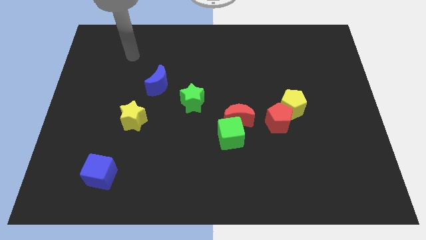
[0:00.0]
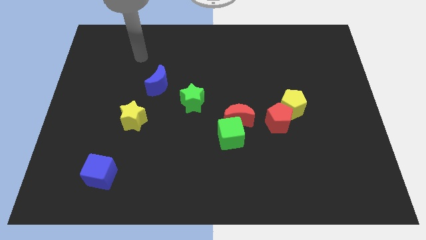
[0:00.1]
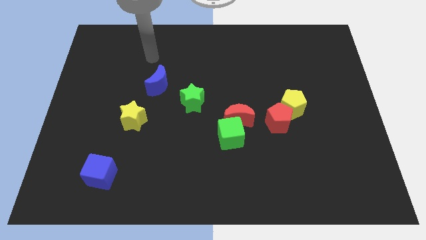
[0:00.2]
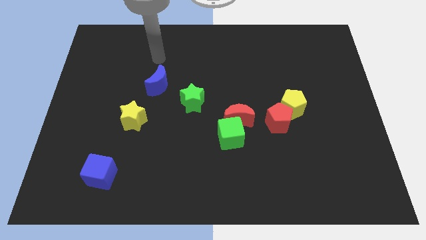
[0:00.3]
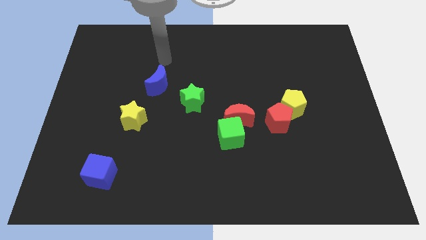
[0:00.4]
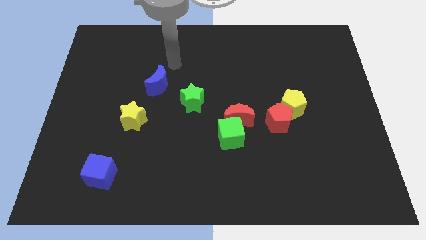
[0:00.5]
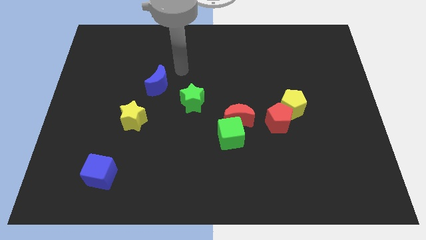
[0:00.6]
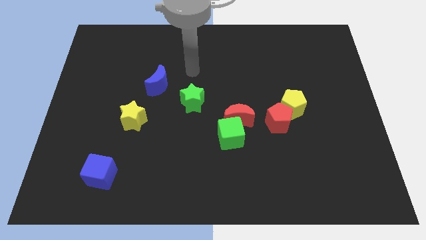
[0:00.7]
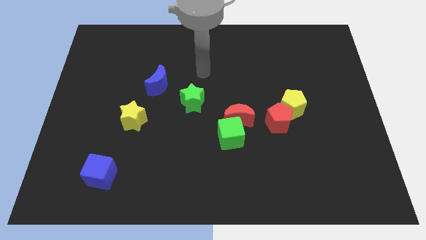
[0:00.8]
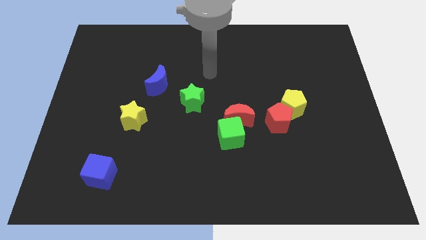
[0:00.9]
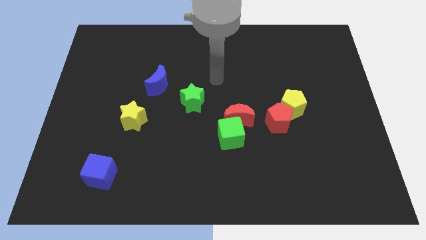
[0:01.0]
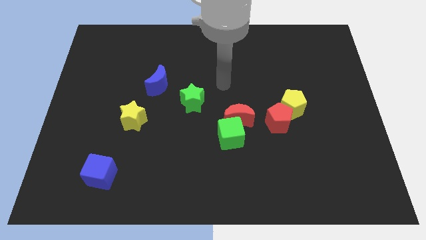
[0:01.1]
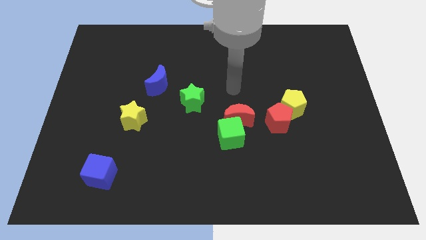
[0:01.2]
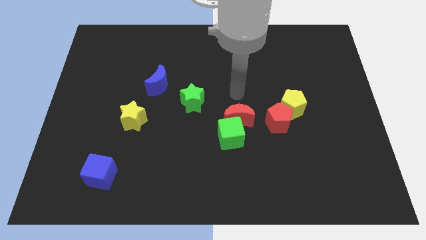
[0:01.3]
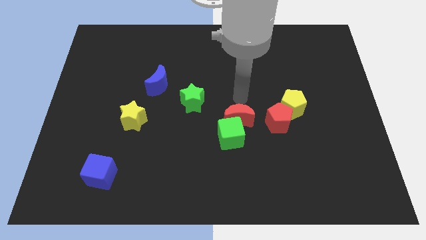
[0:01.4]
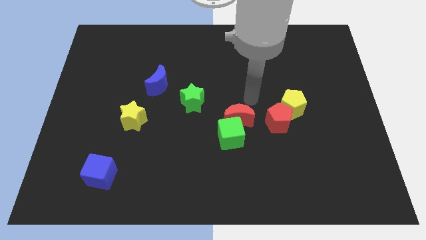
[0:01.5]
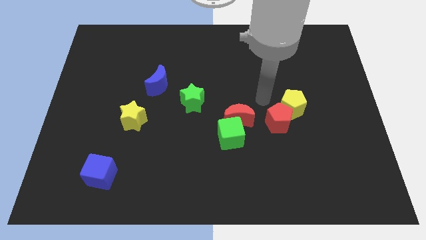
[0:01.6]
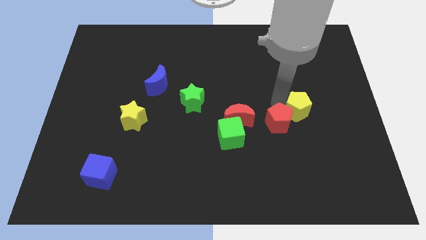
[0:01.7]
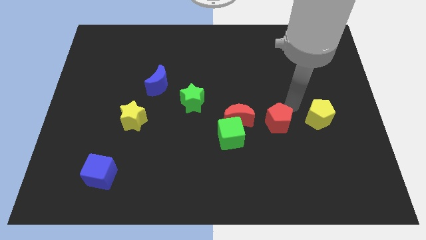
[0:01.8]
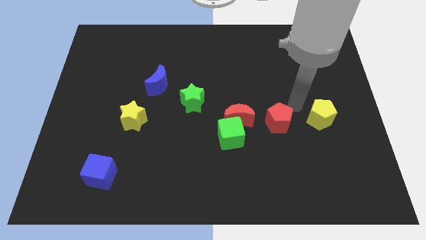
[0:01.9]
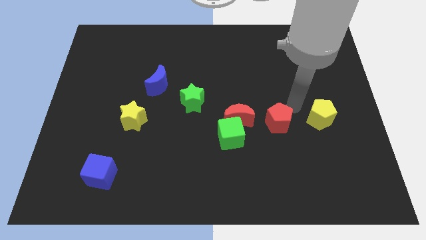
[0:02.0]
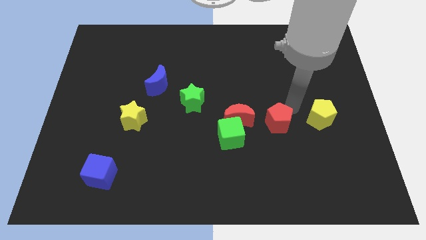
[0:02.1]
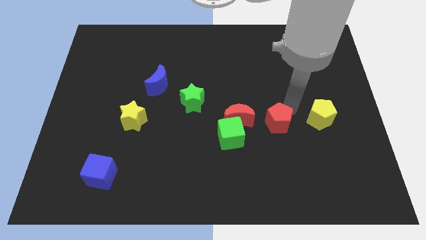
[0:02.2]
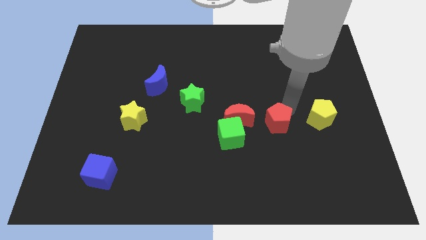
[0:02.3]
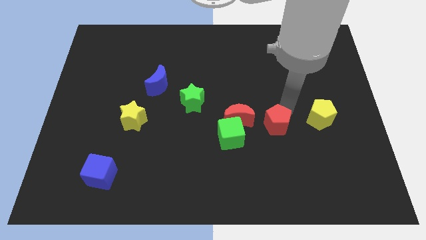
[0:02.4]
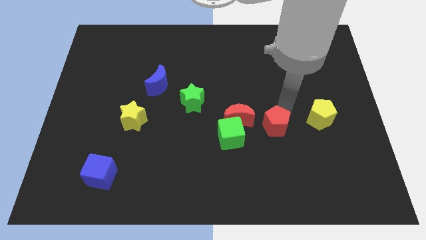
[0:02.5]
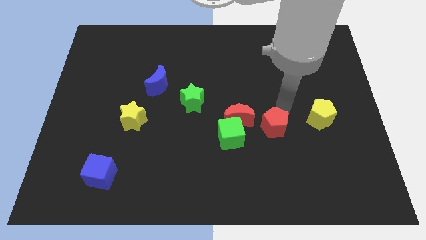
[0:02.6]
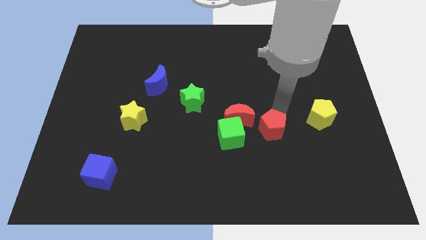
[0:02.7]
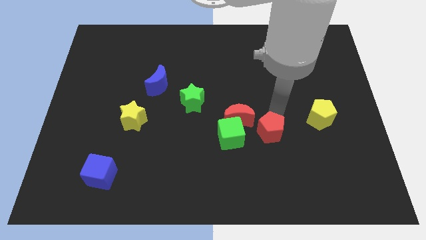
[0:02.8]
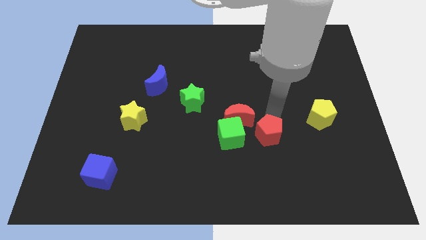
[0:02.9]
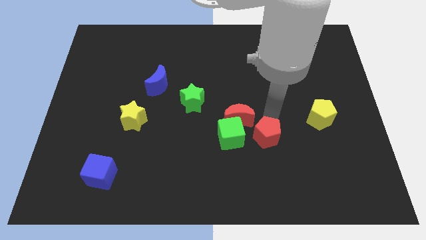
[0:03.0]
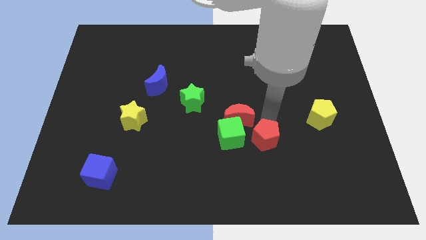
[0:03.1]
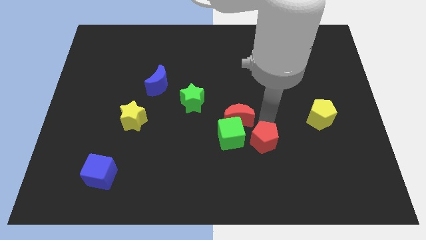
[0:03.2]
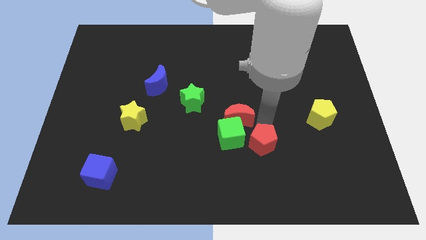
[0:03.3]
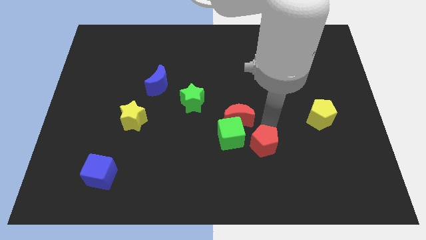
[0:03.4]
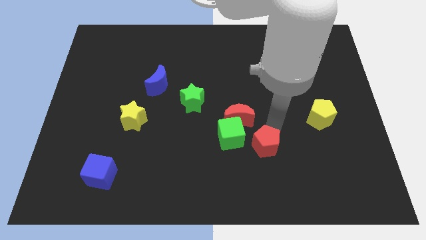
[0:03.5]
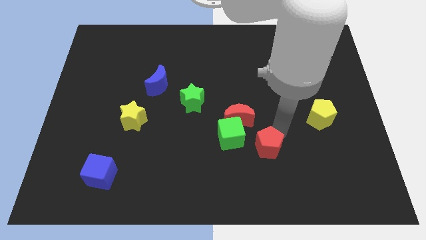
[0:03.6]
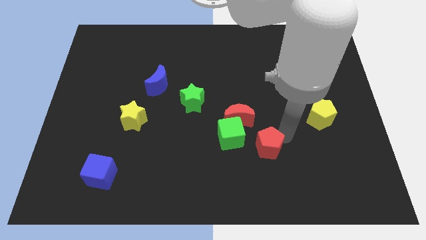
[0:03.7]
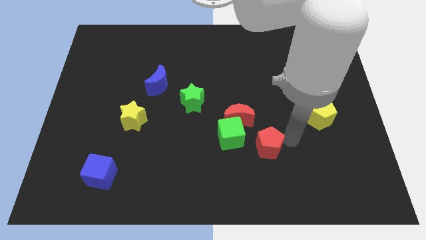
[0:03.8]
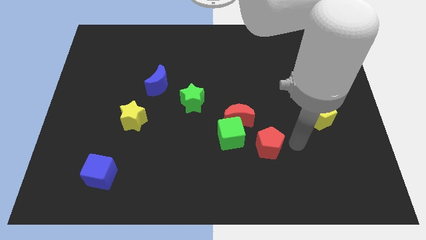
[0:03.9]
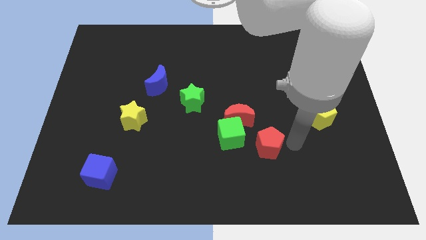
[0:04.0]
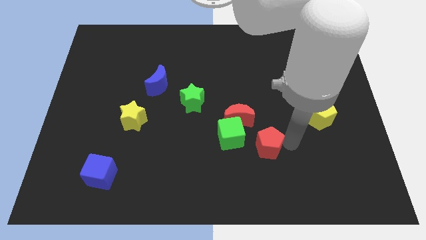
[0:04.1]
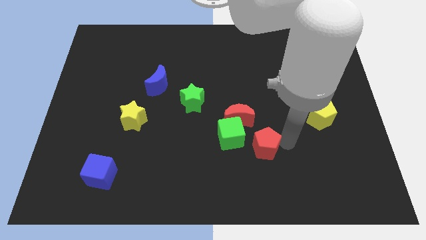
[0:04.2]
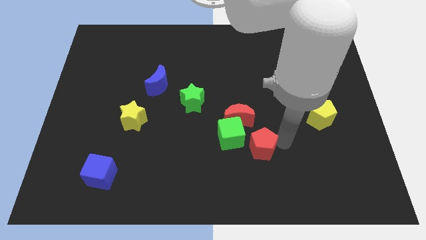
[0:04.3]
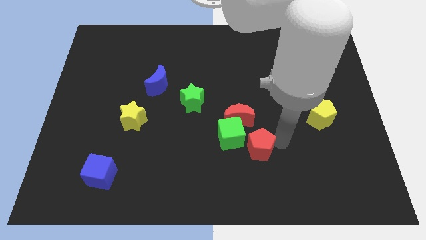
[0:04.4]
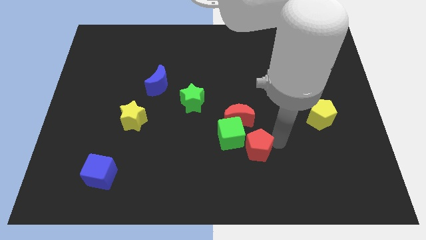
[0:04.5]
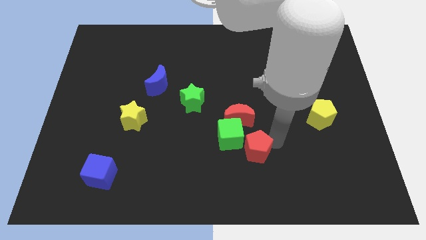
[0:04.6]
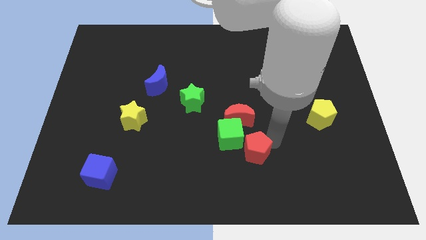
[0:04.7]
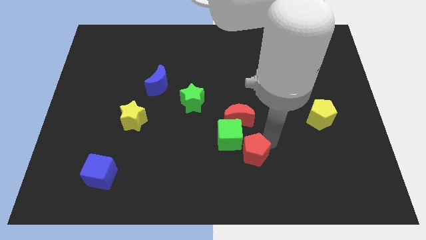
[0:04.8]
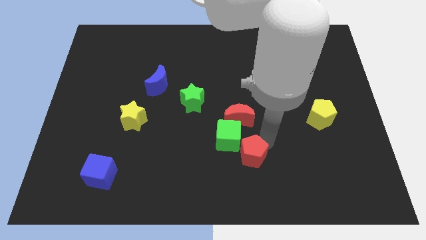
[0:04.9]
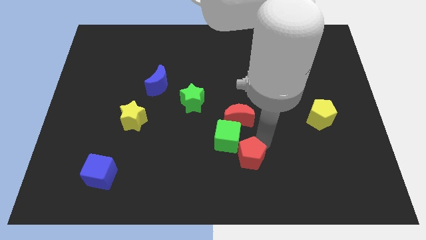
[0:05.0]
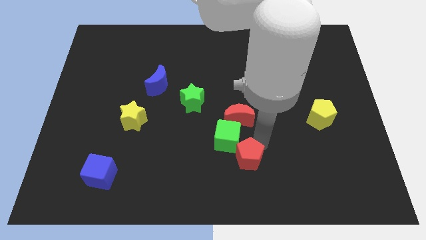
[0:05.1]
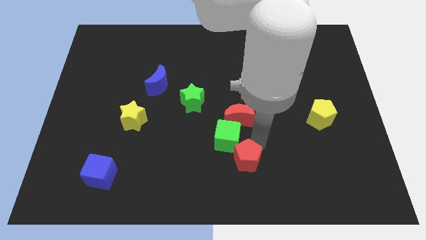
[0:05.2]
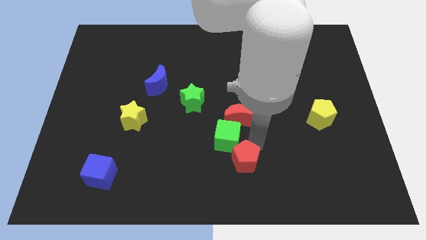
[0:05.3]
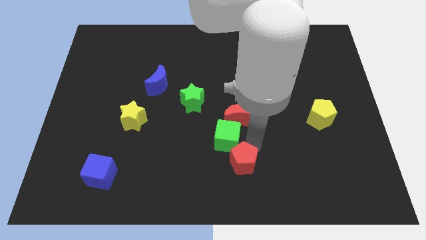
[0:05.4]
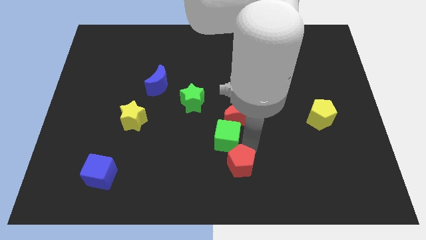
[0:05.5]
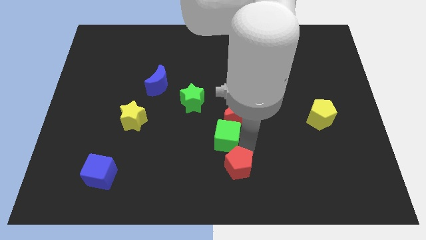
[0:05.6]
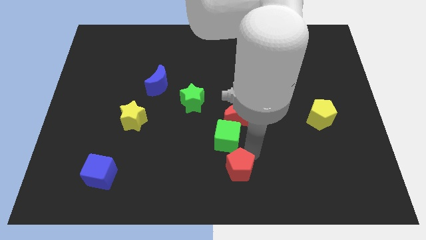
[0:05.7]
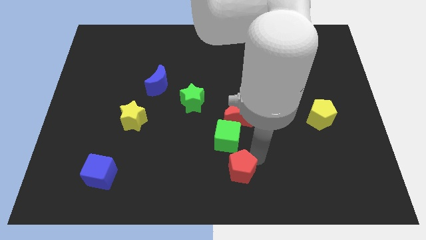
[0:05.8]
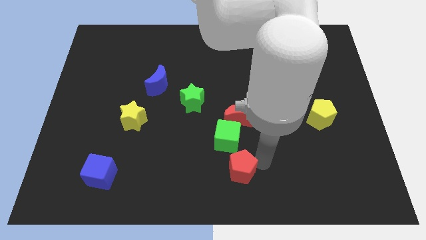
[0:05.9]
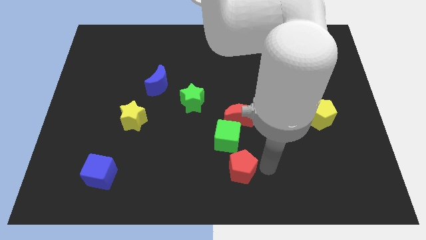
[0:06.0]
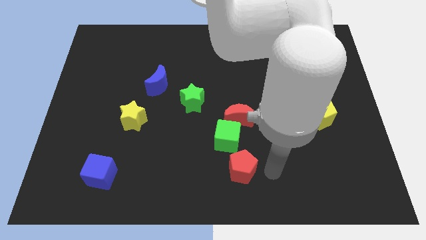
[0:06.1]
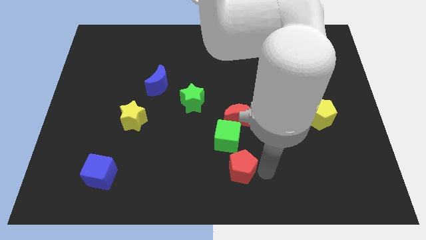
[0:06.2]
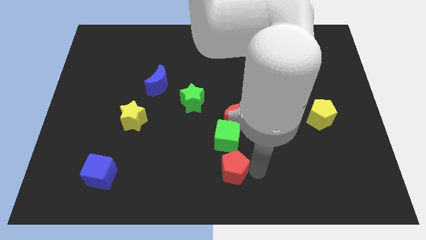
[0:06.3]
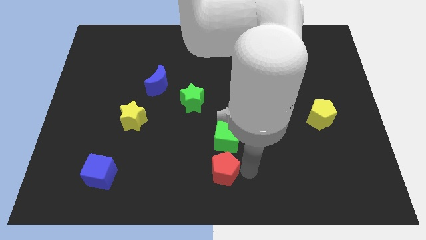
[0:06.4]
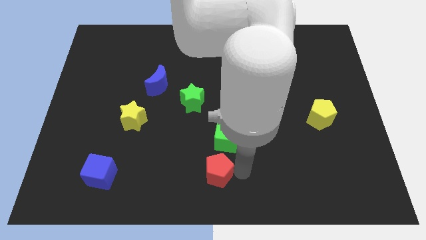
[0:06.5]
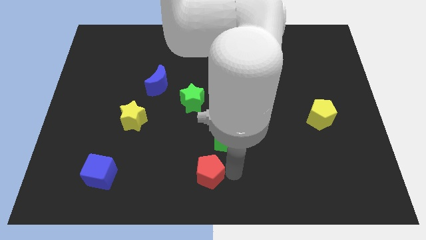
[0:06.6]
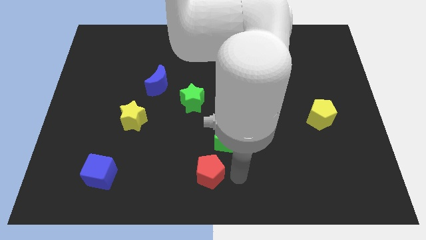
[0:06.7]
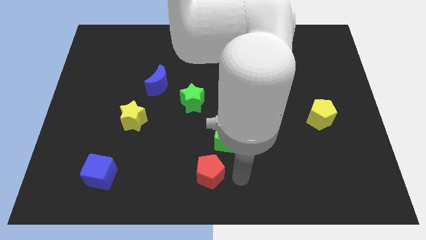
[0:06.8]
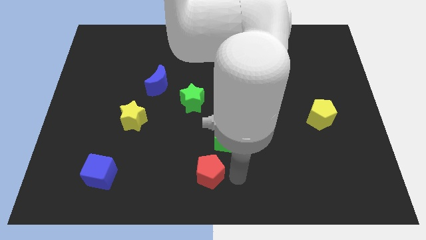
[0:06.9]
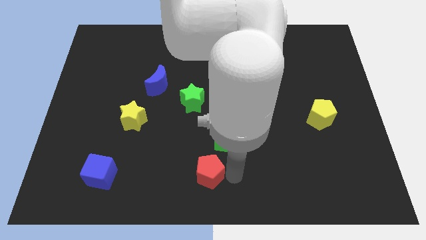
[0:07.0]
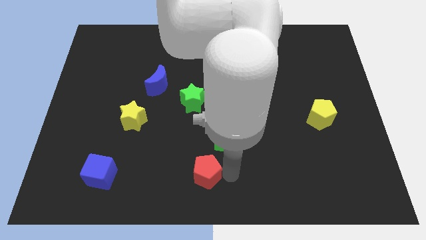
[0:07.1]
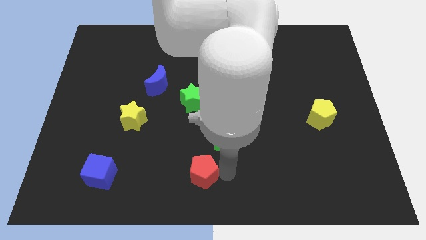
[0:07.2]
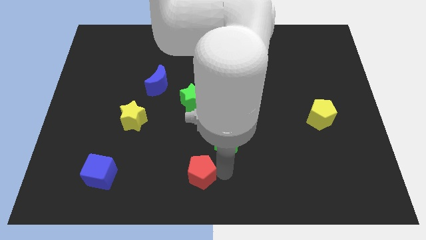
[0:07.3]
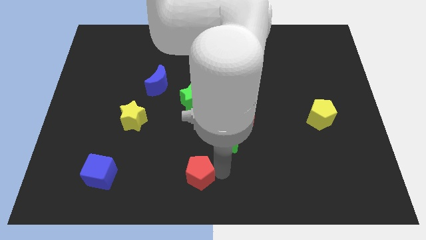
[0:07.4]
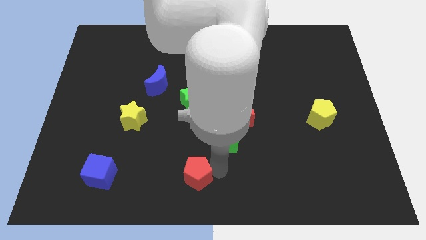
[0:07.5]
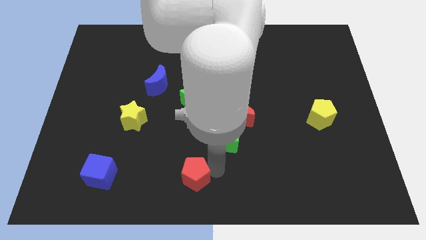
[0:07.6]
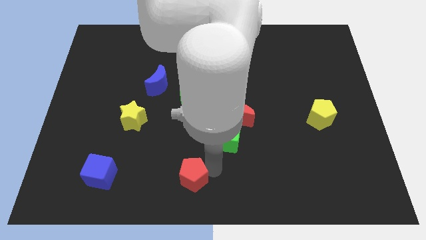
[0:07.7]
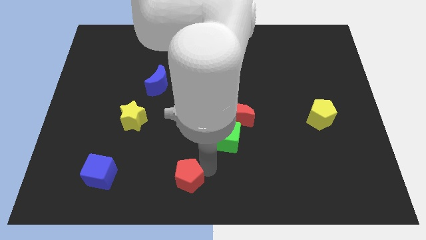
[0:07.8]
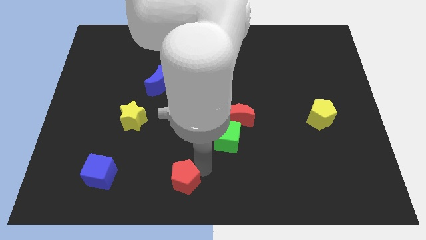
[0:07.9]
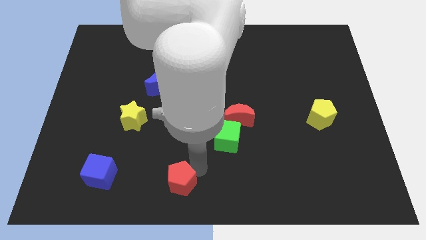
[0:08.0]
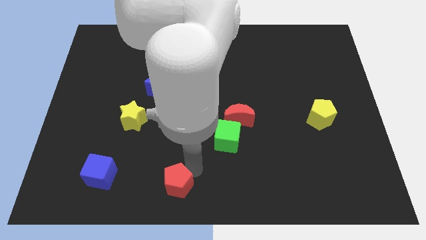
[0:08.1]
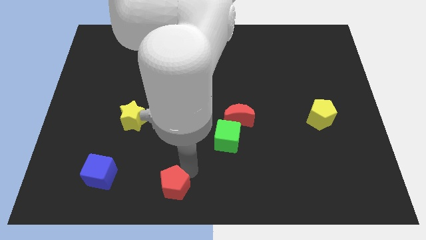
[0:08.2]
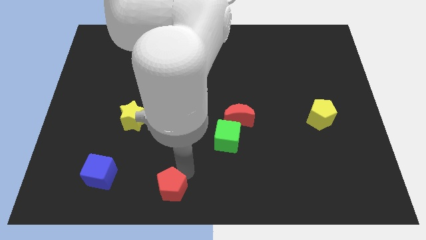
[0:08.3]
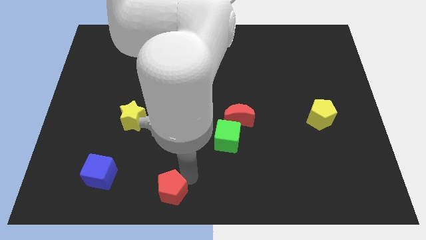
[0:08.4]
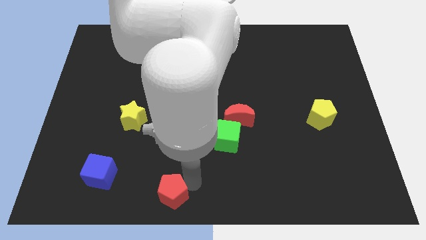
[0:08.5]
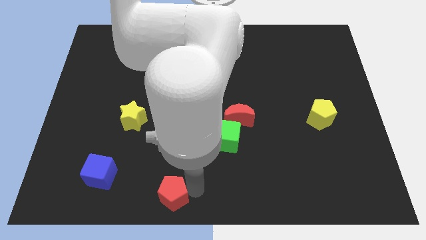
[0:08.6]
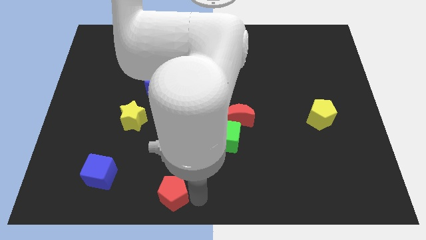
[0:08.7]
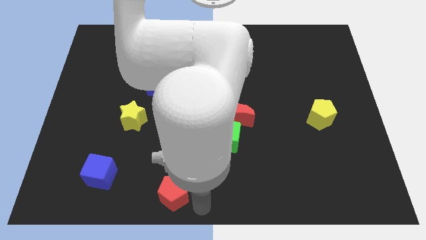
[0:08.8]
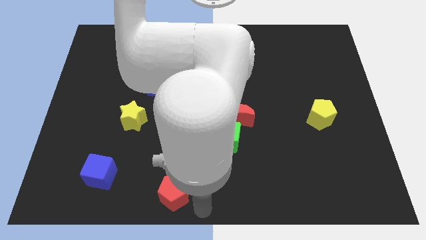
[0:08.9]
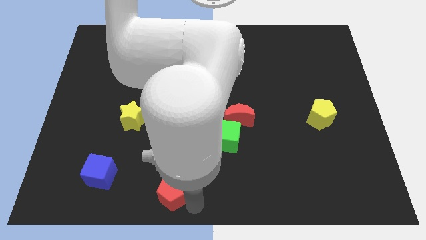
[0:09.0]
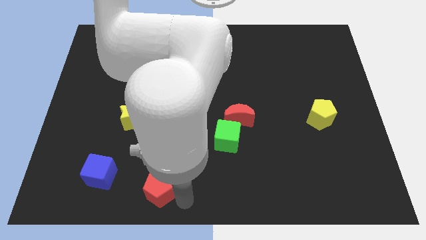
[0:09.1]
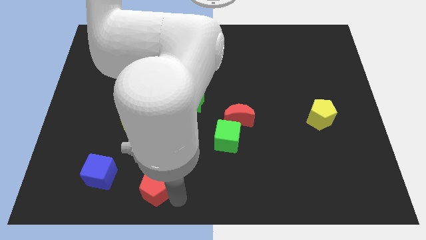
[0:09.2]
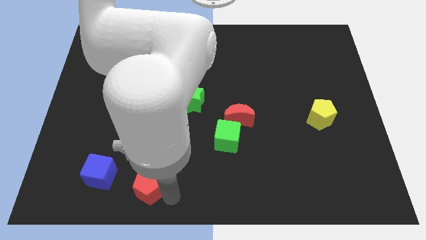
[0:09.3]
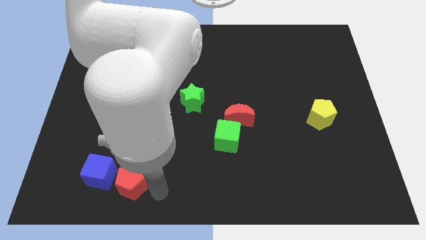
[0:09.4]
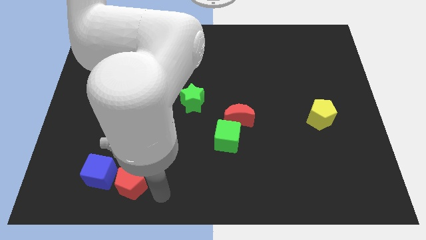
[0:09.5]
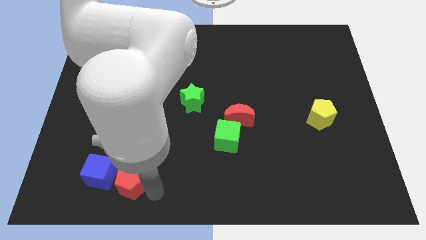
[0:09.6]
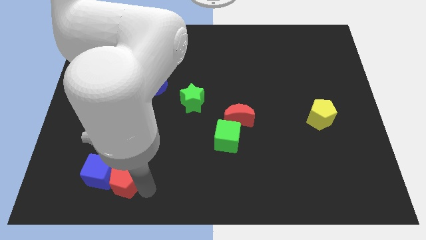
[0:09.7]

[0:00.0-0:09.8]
slide the red pentagon close to the blue cube
